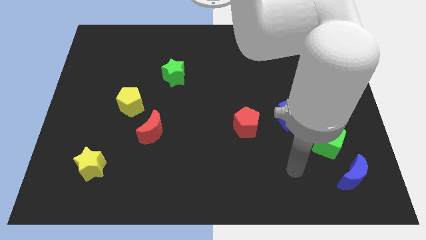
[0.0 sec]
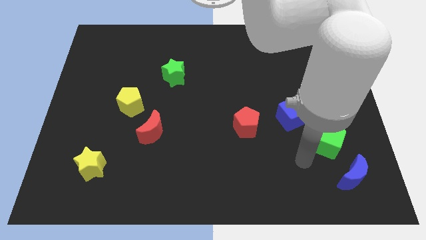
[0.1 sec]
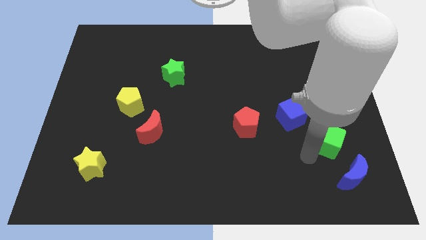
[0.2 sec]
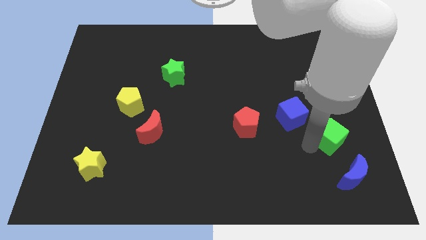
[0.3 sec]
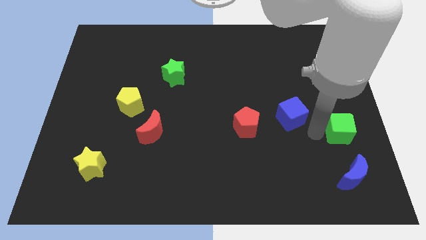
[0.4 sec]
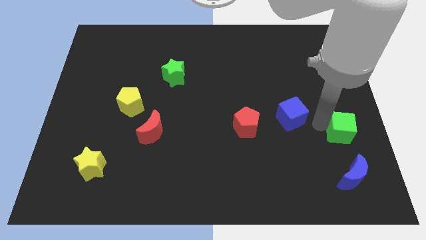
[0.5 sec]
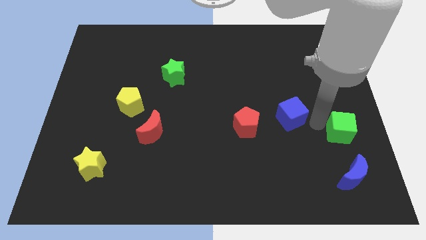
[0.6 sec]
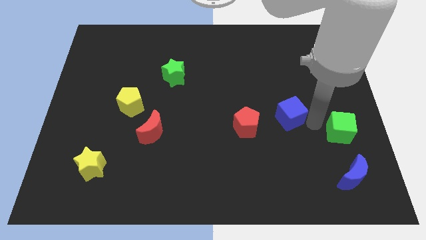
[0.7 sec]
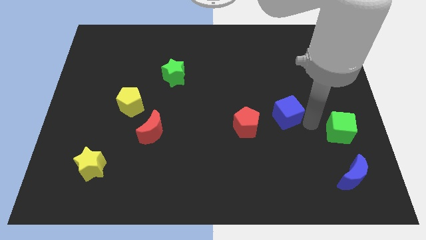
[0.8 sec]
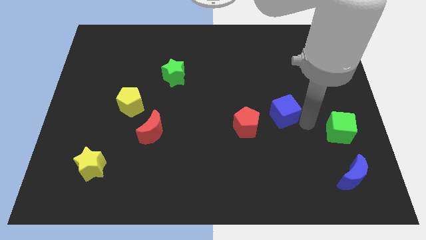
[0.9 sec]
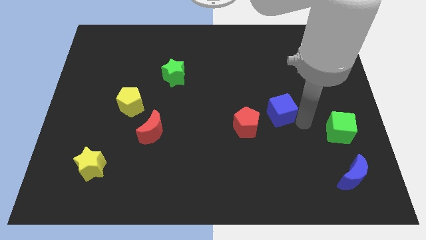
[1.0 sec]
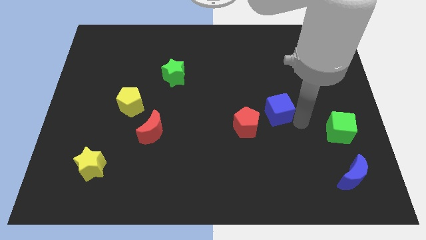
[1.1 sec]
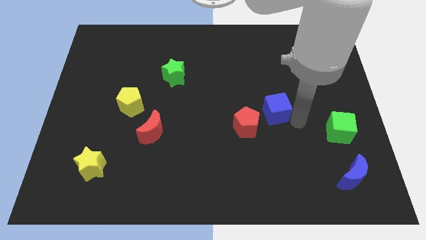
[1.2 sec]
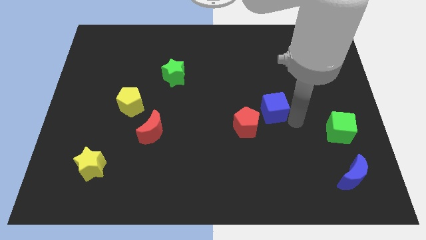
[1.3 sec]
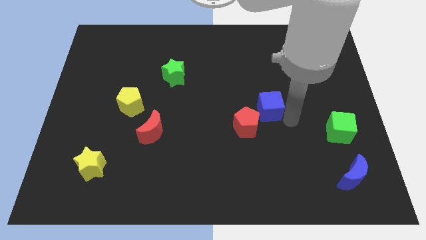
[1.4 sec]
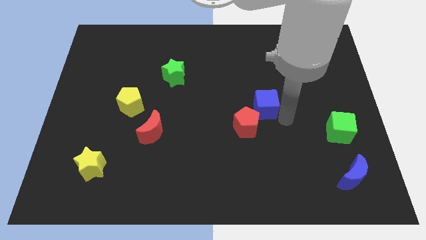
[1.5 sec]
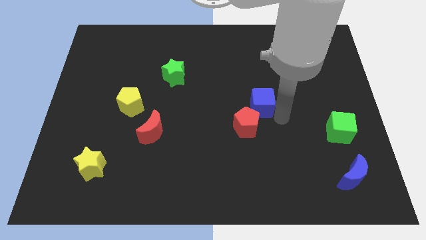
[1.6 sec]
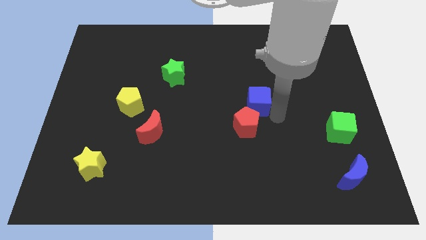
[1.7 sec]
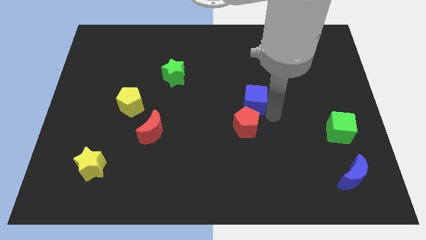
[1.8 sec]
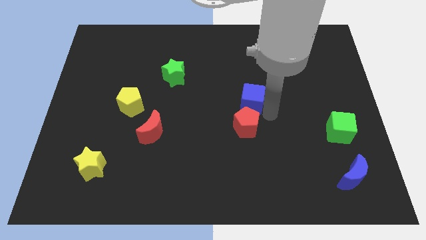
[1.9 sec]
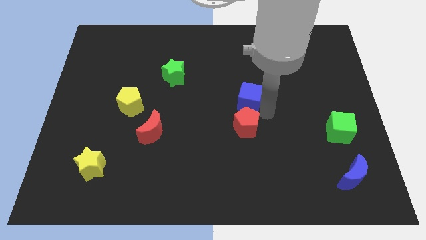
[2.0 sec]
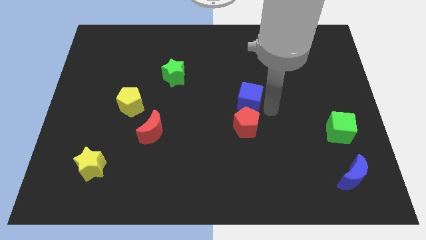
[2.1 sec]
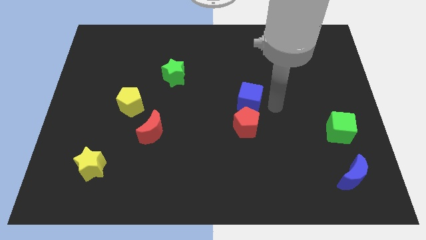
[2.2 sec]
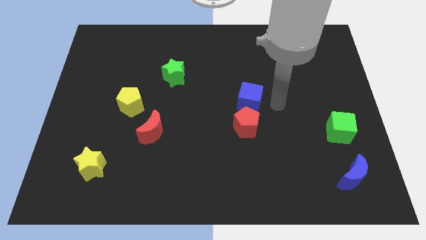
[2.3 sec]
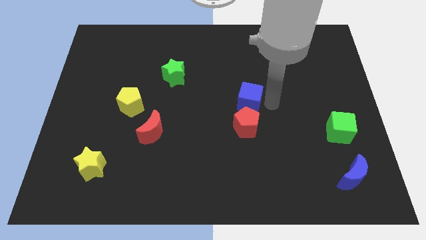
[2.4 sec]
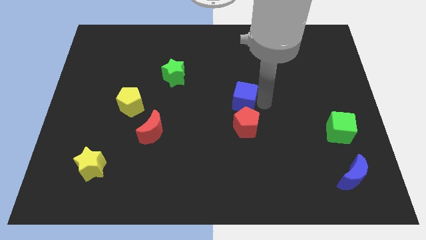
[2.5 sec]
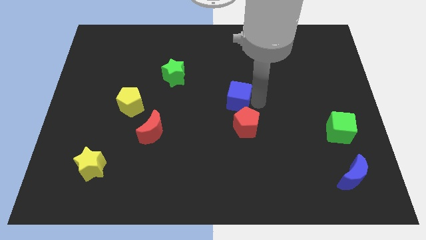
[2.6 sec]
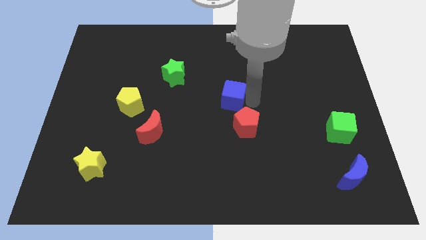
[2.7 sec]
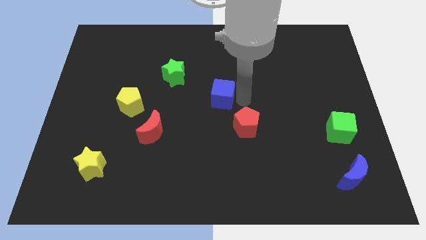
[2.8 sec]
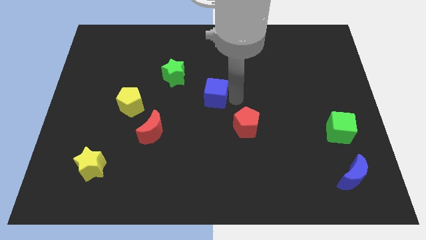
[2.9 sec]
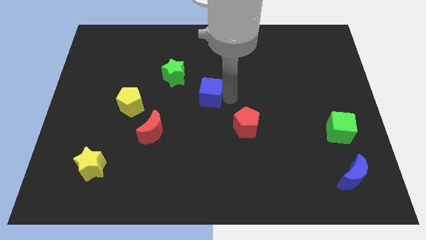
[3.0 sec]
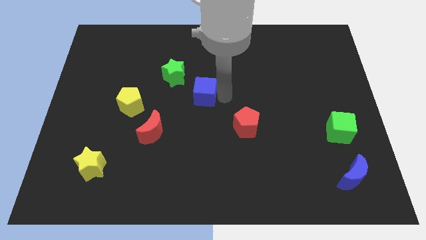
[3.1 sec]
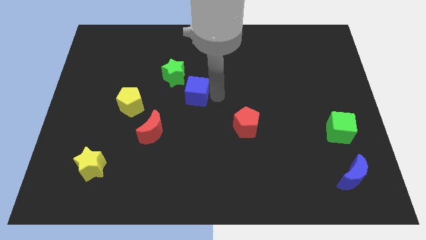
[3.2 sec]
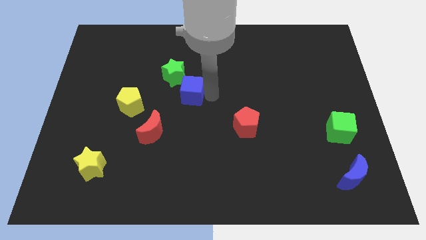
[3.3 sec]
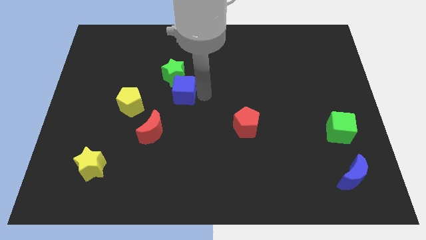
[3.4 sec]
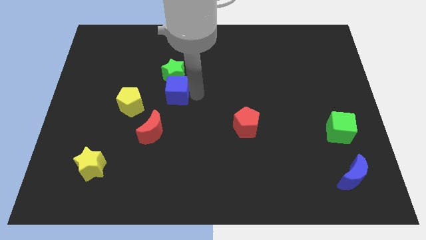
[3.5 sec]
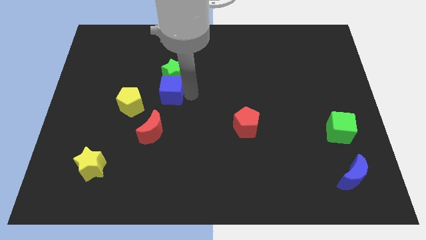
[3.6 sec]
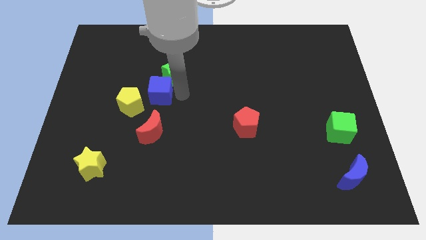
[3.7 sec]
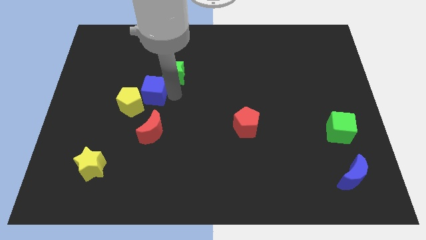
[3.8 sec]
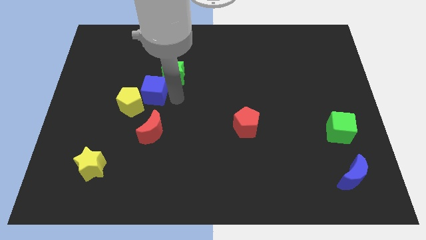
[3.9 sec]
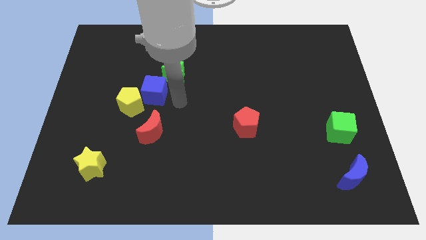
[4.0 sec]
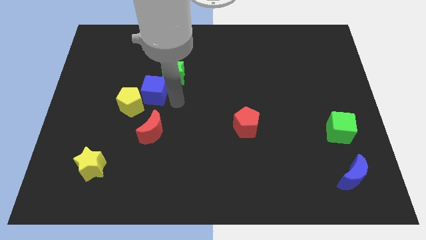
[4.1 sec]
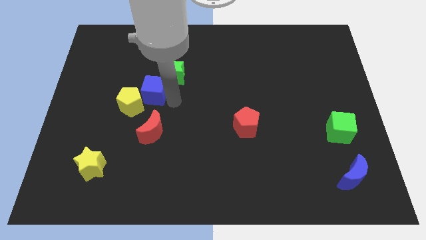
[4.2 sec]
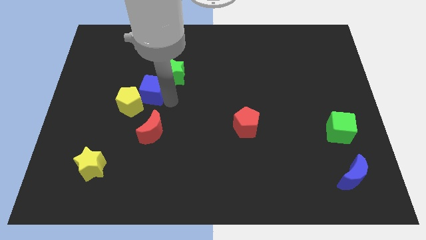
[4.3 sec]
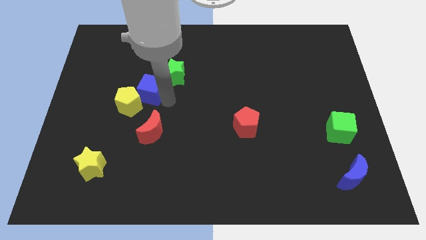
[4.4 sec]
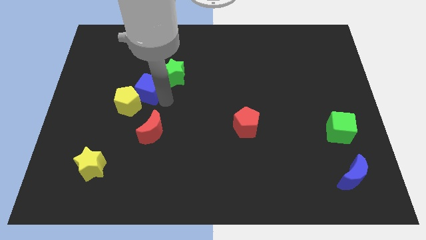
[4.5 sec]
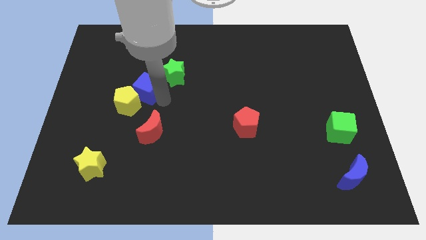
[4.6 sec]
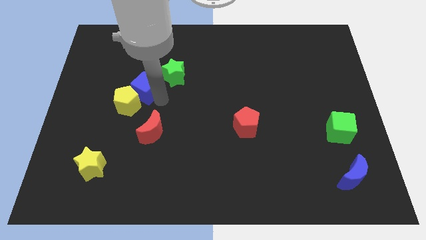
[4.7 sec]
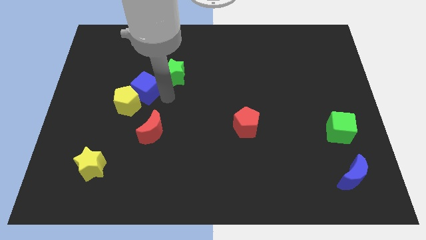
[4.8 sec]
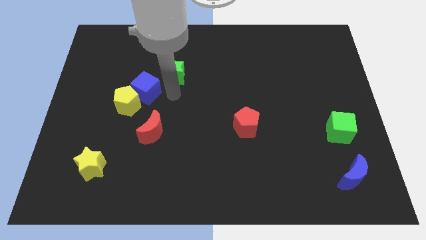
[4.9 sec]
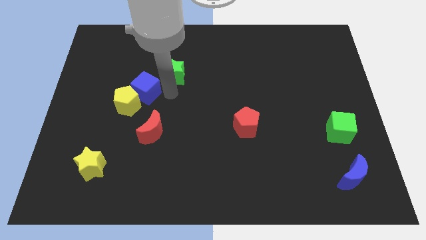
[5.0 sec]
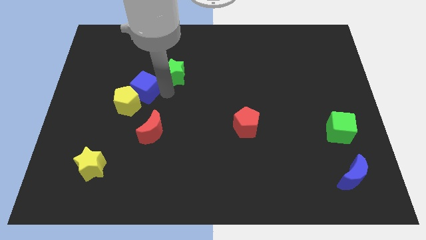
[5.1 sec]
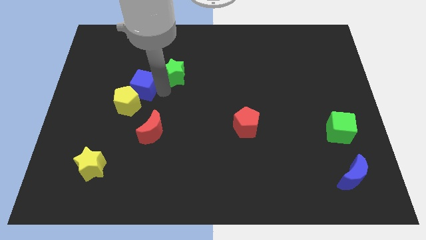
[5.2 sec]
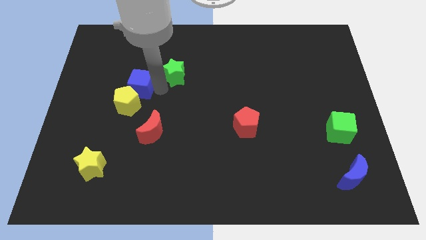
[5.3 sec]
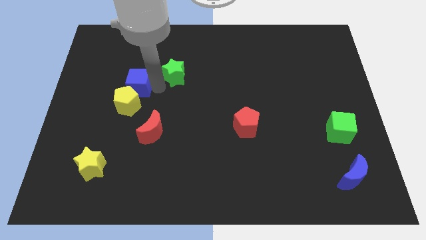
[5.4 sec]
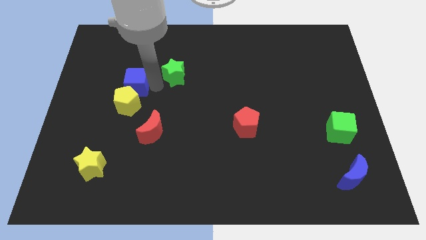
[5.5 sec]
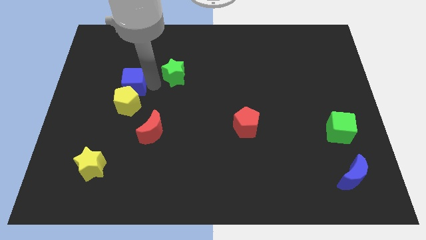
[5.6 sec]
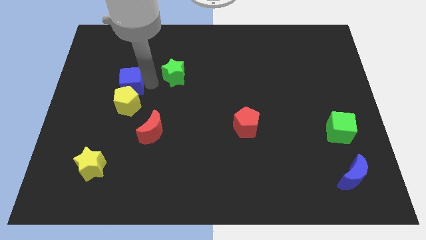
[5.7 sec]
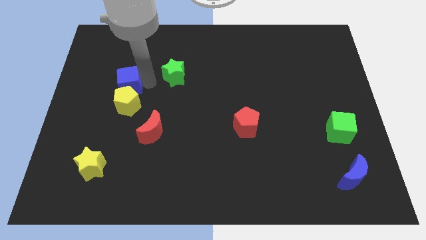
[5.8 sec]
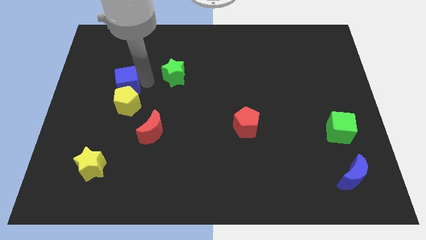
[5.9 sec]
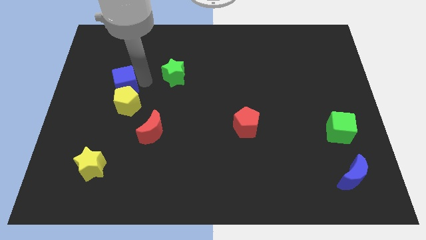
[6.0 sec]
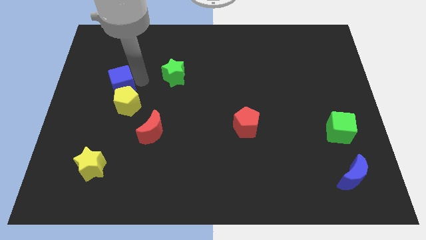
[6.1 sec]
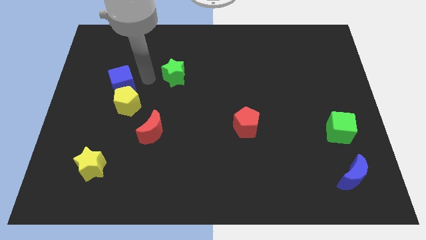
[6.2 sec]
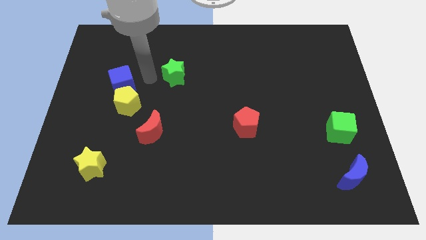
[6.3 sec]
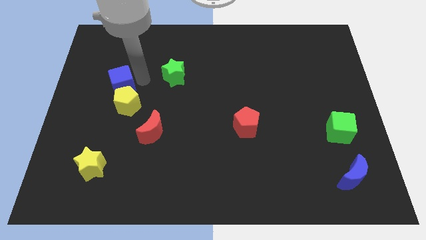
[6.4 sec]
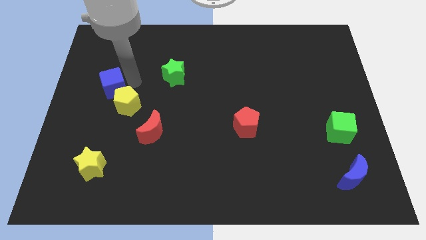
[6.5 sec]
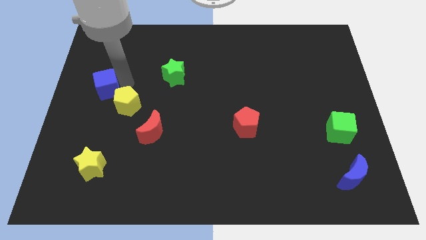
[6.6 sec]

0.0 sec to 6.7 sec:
move the blue cube to the left side

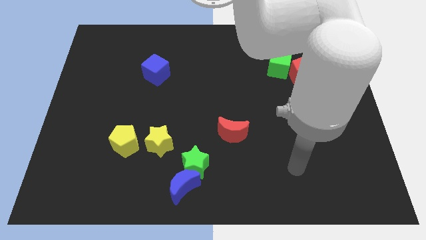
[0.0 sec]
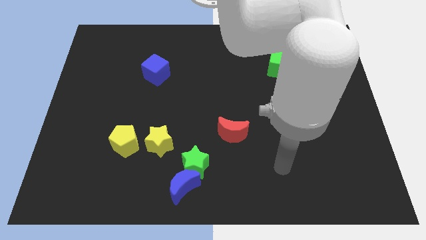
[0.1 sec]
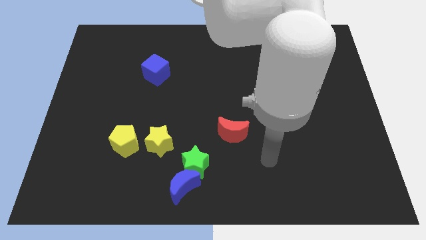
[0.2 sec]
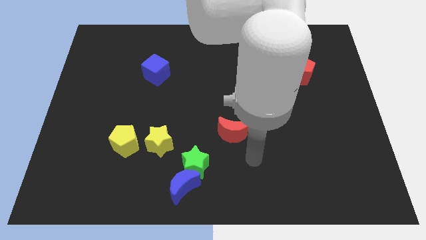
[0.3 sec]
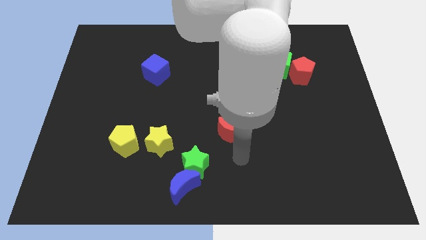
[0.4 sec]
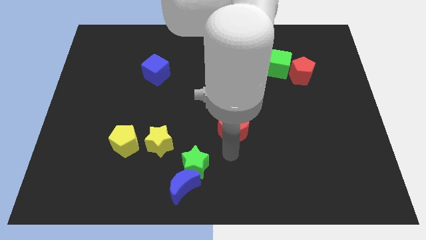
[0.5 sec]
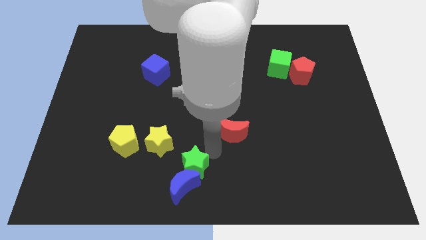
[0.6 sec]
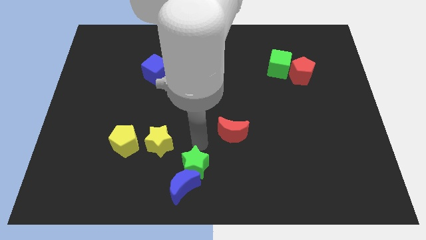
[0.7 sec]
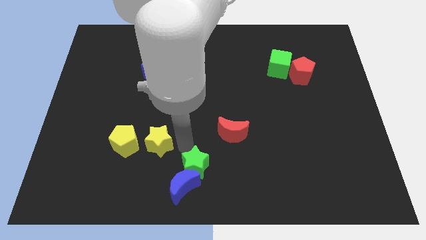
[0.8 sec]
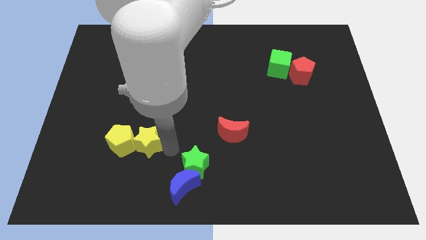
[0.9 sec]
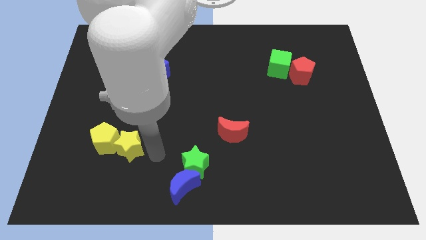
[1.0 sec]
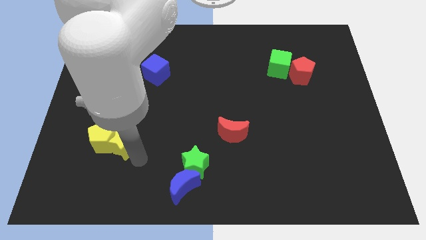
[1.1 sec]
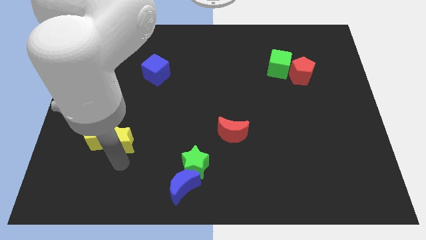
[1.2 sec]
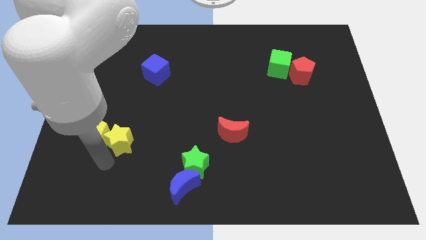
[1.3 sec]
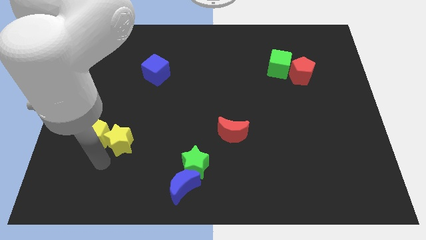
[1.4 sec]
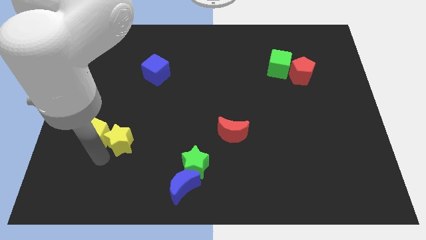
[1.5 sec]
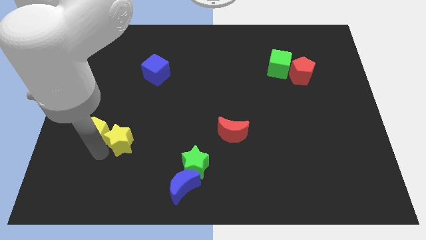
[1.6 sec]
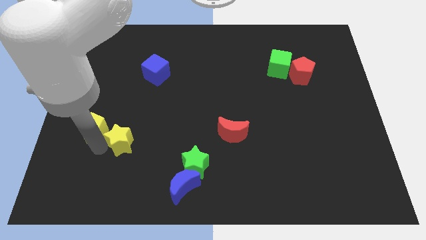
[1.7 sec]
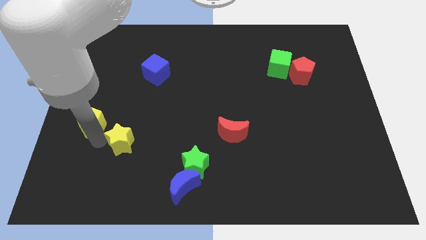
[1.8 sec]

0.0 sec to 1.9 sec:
slide the yellow pentagon to the left side of the board
